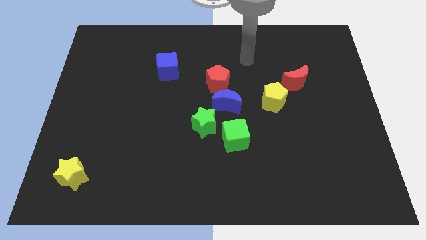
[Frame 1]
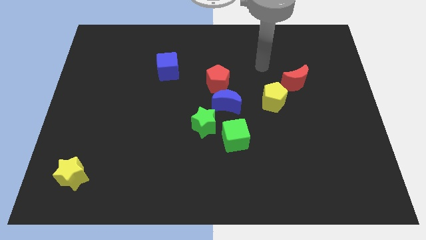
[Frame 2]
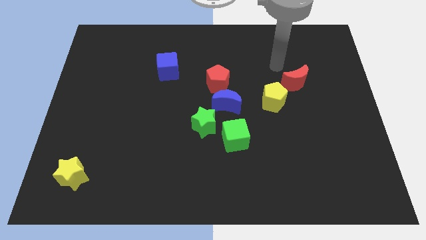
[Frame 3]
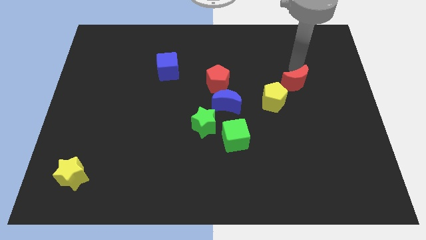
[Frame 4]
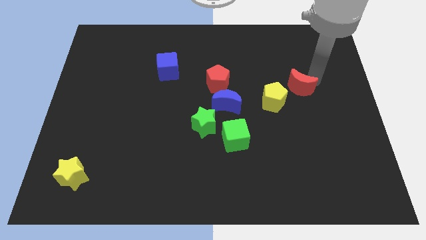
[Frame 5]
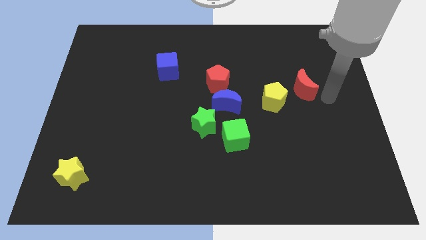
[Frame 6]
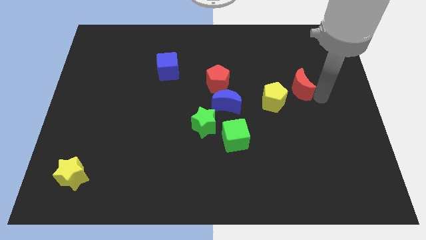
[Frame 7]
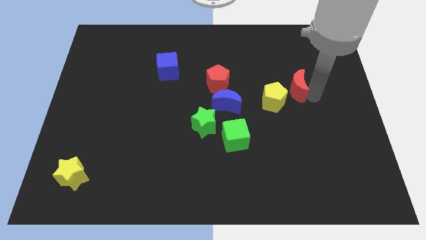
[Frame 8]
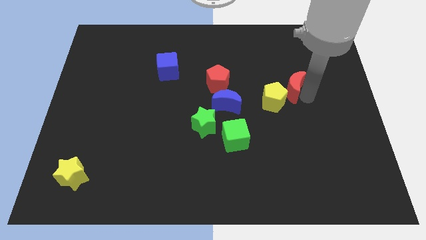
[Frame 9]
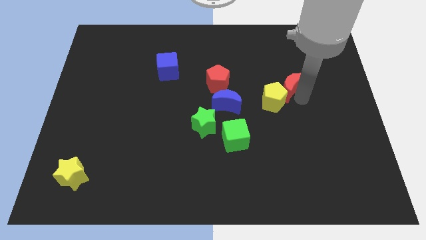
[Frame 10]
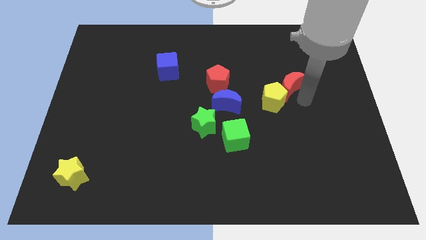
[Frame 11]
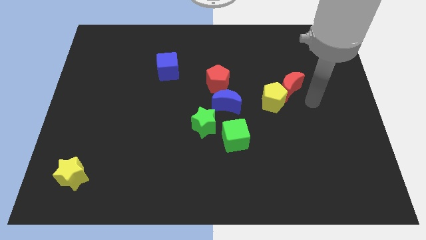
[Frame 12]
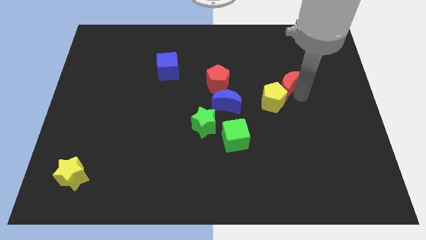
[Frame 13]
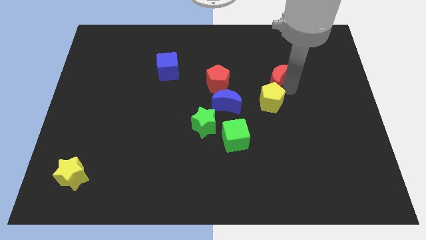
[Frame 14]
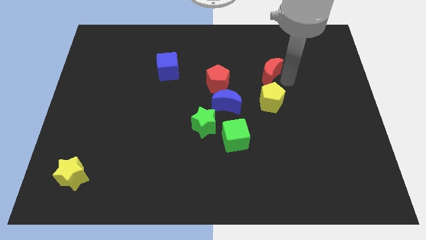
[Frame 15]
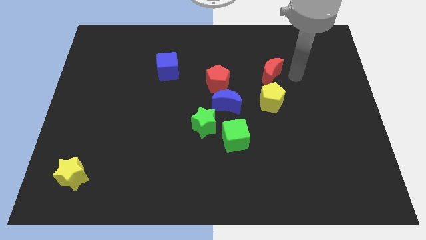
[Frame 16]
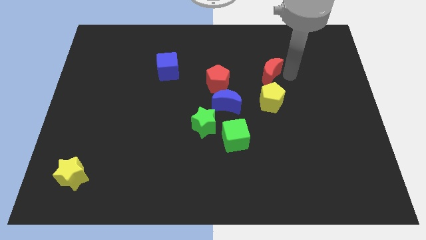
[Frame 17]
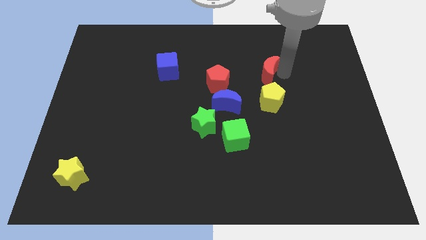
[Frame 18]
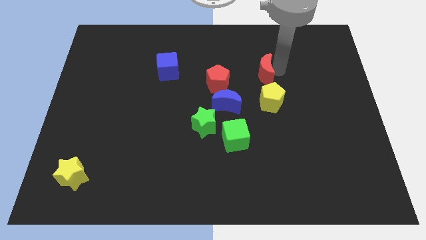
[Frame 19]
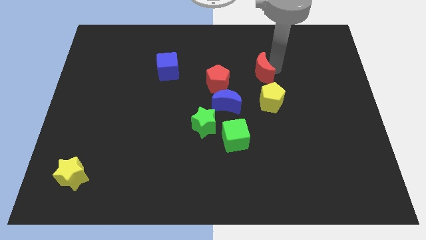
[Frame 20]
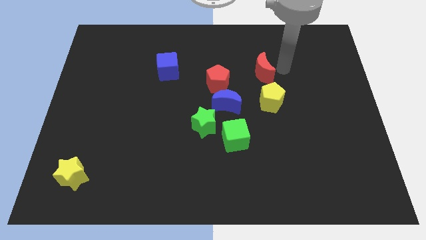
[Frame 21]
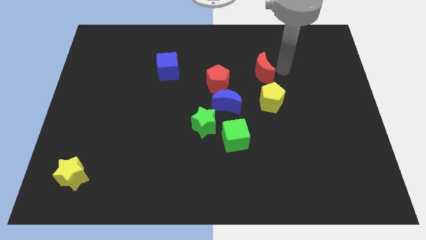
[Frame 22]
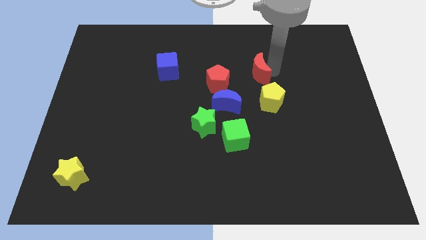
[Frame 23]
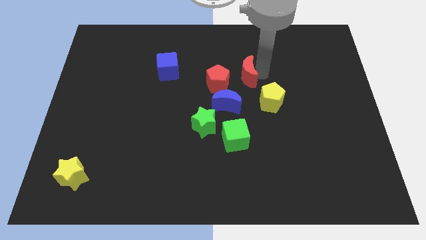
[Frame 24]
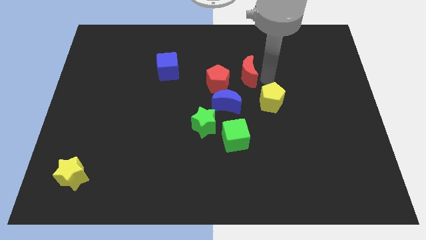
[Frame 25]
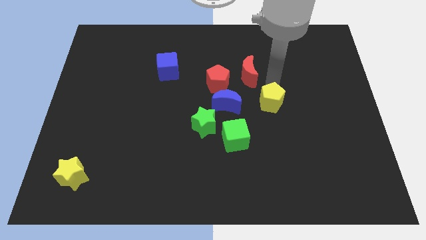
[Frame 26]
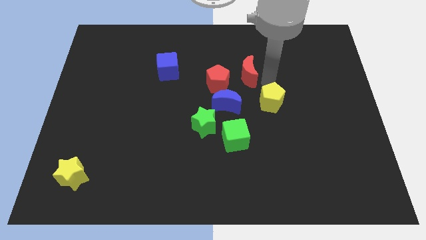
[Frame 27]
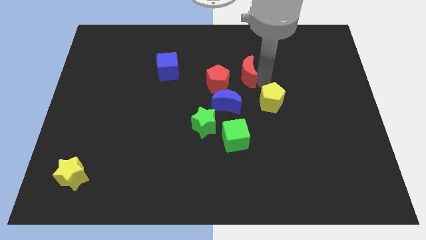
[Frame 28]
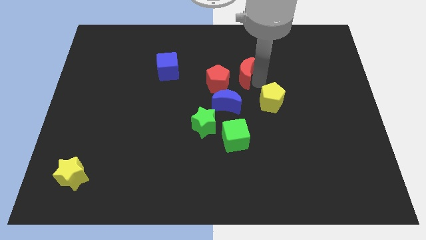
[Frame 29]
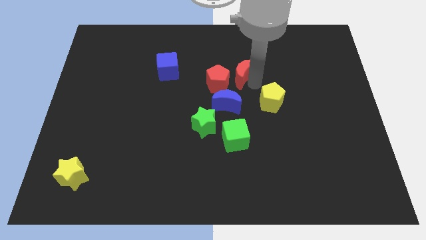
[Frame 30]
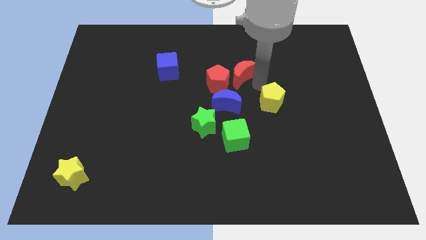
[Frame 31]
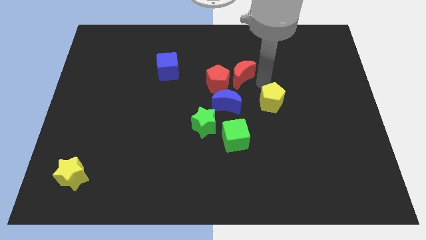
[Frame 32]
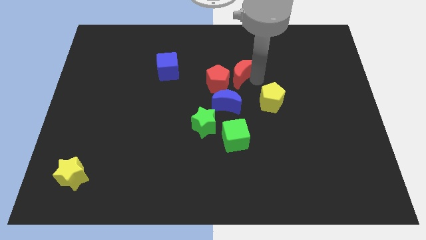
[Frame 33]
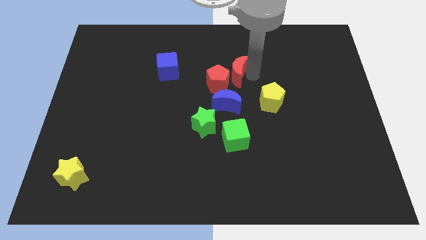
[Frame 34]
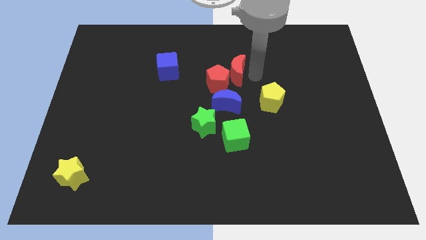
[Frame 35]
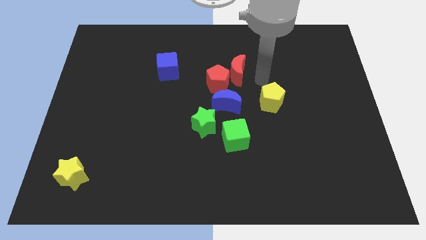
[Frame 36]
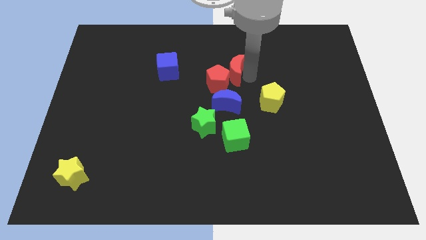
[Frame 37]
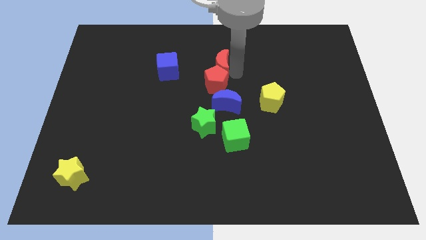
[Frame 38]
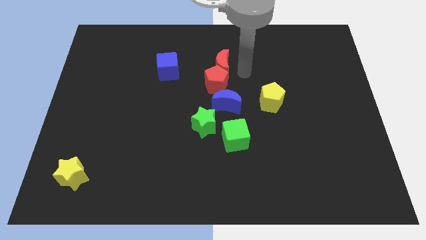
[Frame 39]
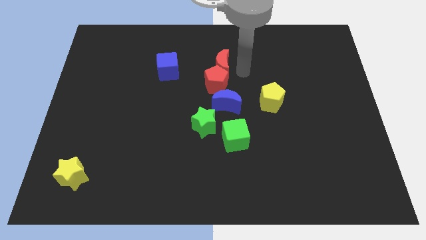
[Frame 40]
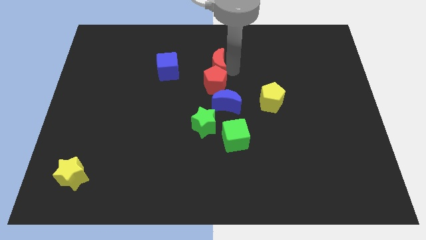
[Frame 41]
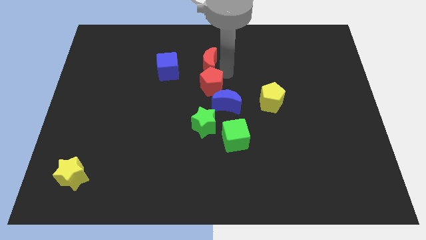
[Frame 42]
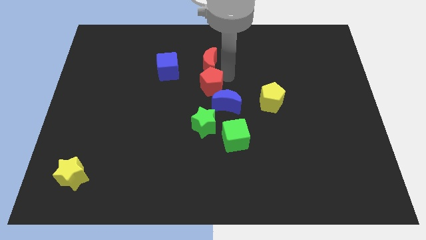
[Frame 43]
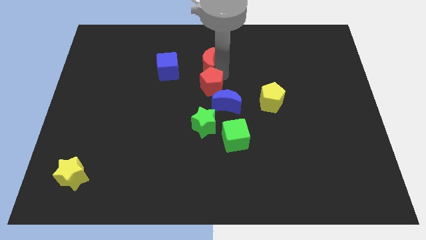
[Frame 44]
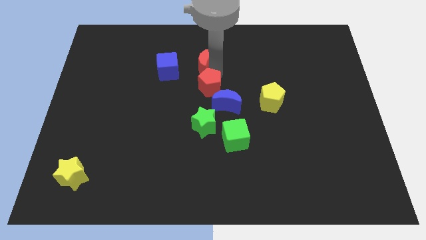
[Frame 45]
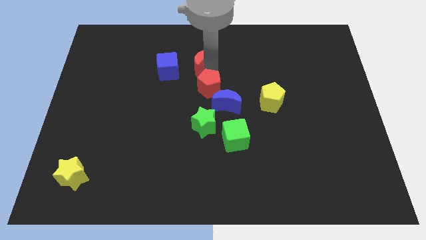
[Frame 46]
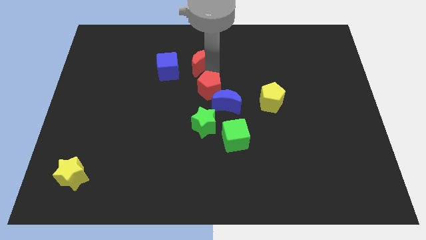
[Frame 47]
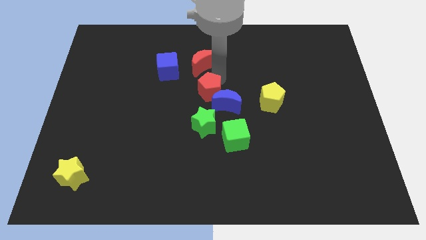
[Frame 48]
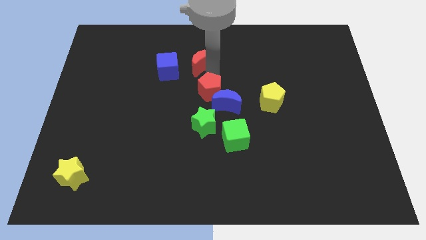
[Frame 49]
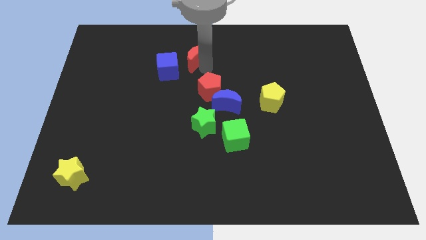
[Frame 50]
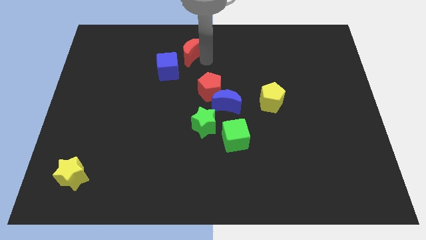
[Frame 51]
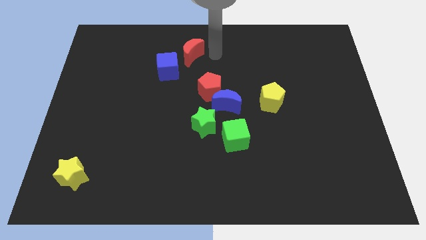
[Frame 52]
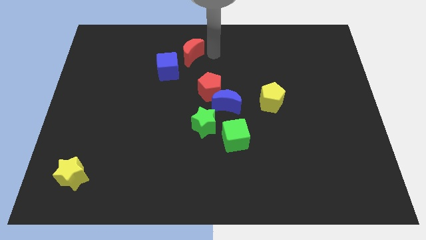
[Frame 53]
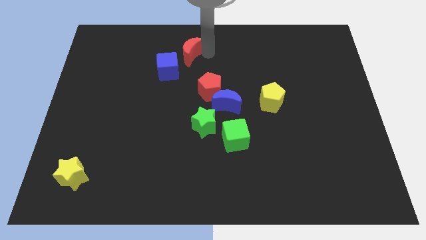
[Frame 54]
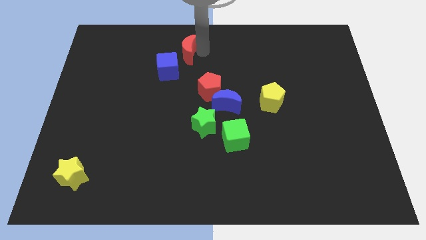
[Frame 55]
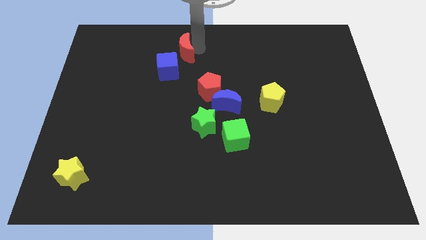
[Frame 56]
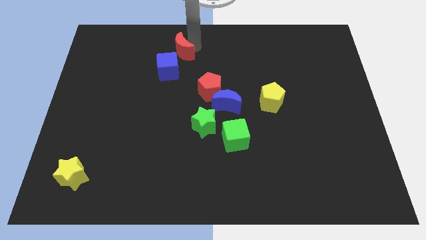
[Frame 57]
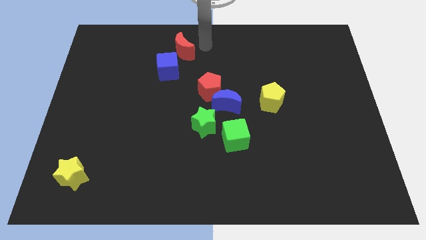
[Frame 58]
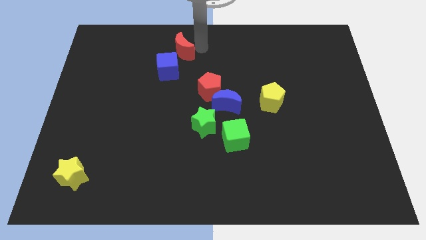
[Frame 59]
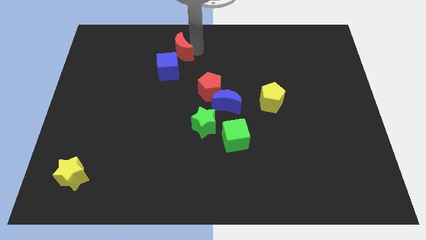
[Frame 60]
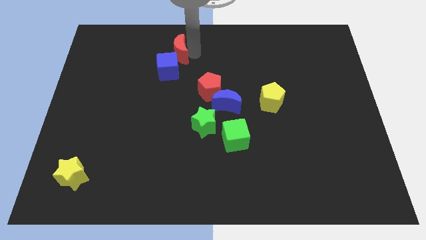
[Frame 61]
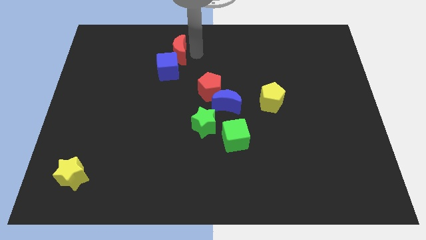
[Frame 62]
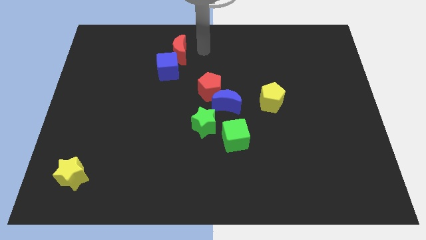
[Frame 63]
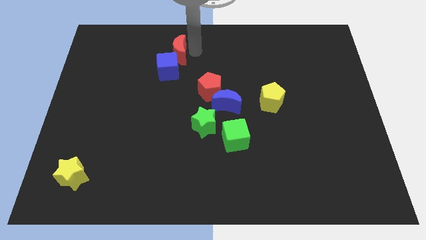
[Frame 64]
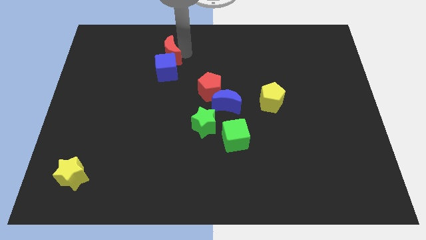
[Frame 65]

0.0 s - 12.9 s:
push the red moon to the top left of the blue cube
